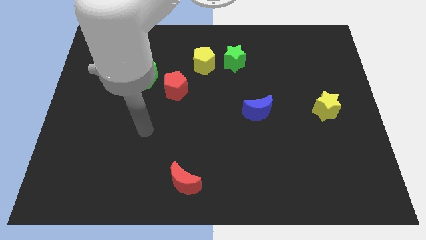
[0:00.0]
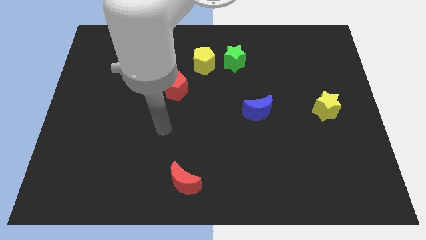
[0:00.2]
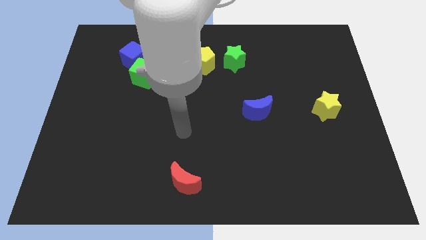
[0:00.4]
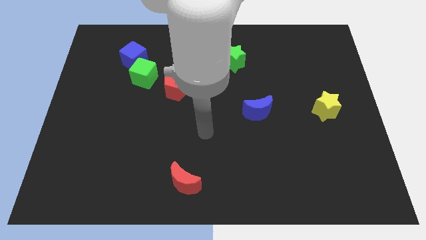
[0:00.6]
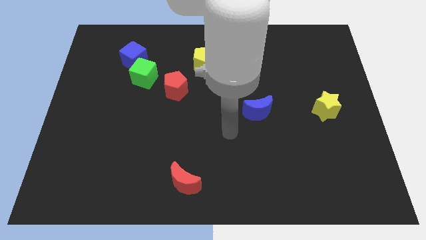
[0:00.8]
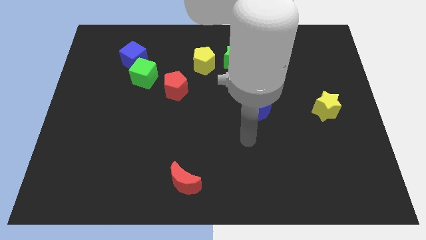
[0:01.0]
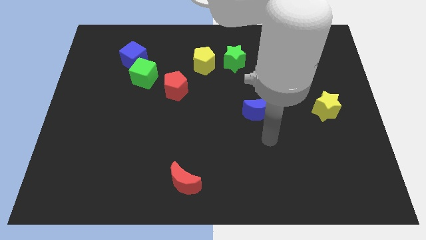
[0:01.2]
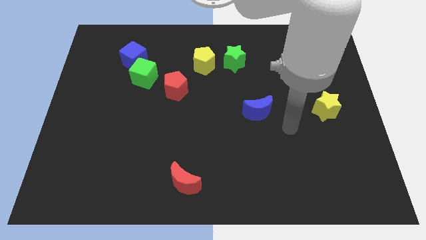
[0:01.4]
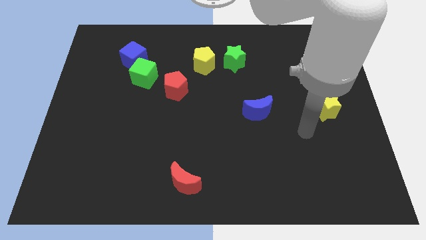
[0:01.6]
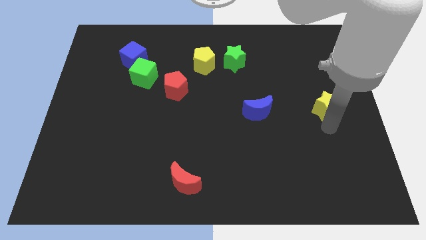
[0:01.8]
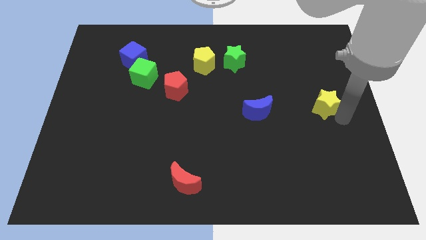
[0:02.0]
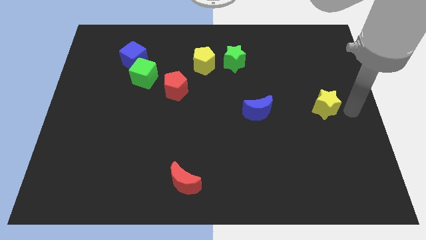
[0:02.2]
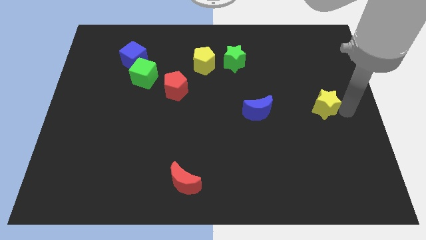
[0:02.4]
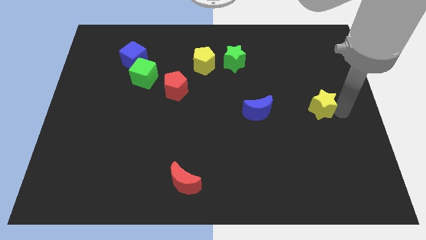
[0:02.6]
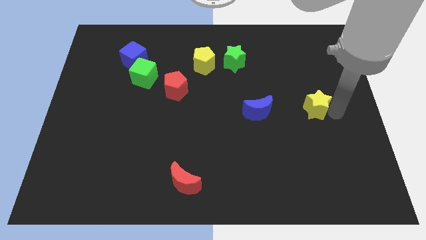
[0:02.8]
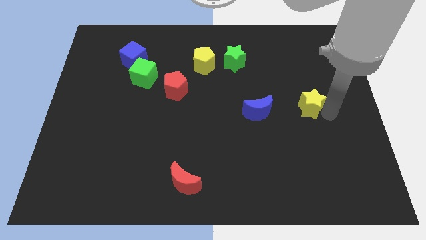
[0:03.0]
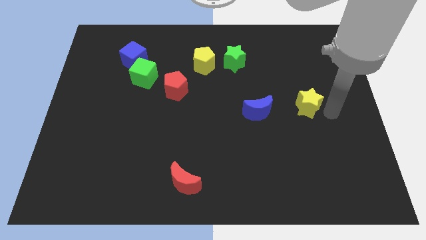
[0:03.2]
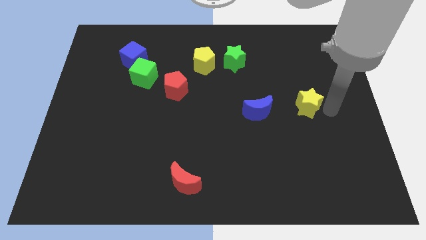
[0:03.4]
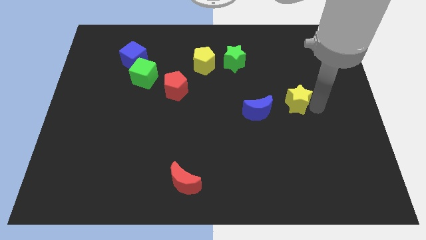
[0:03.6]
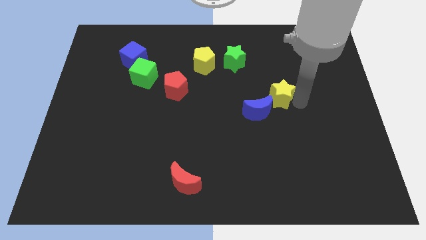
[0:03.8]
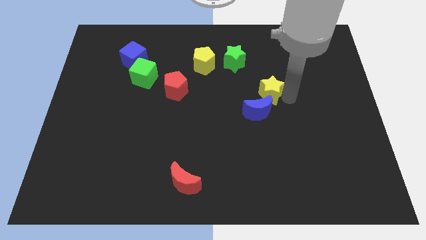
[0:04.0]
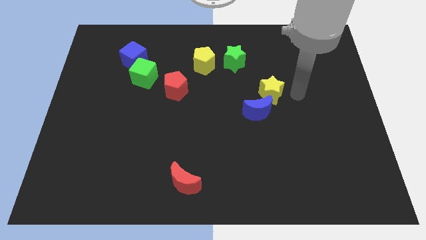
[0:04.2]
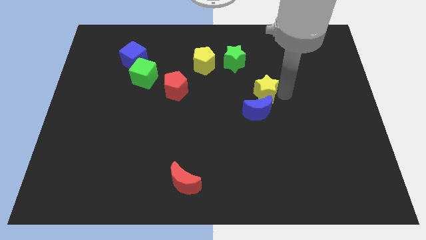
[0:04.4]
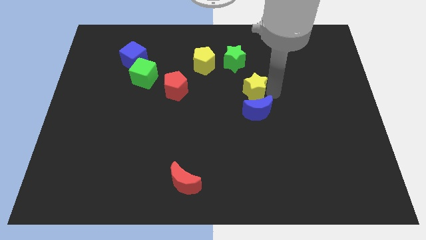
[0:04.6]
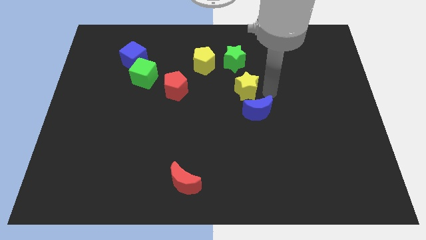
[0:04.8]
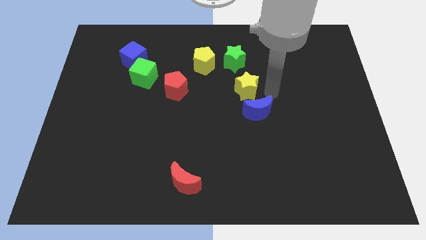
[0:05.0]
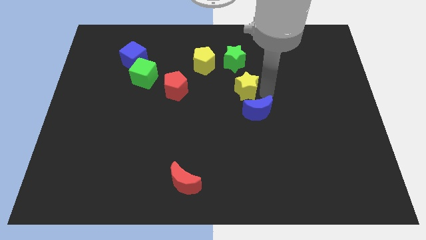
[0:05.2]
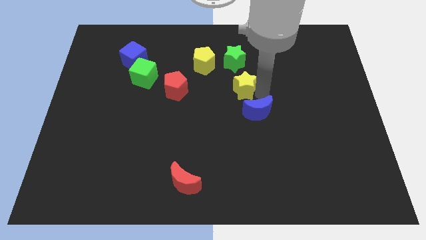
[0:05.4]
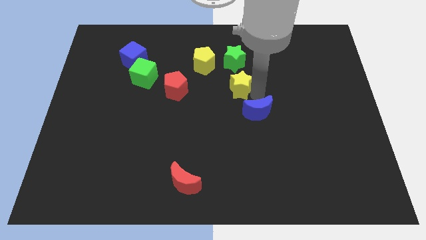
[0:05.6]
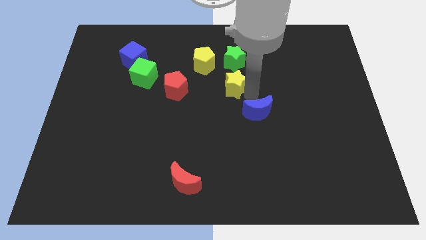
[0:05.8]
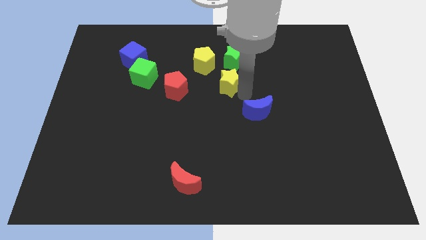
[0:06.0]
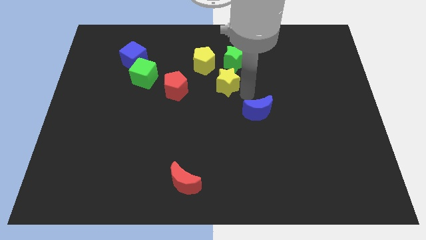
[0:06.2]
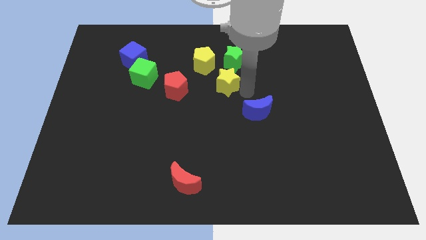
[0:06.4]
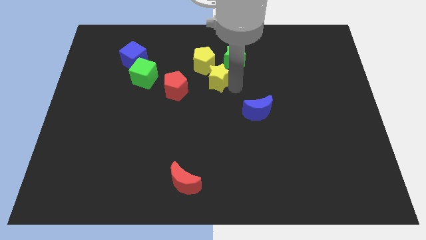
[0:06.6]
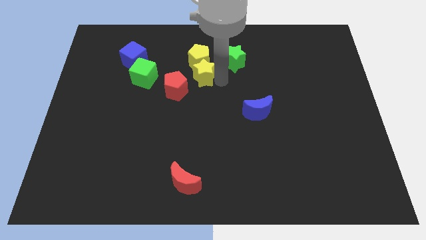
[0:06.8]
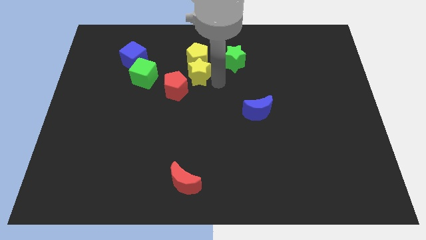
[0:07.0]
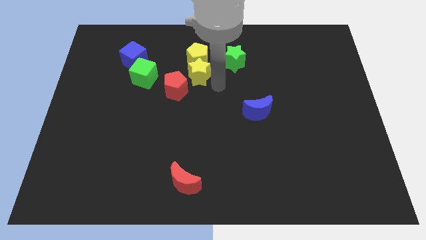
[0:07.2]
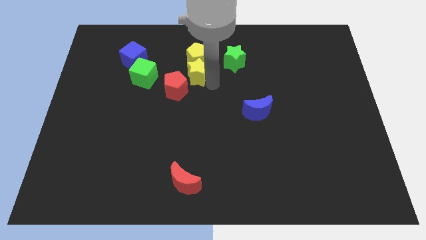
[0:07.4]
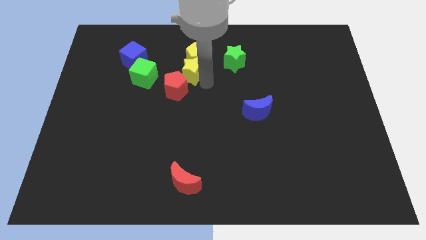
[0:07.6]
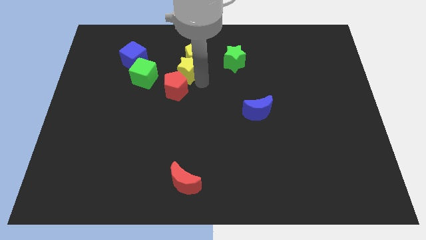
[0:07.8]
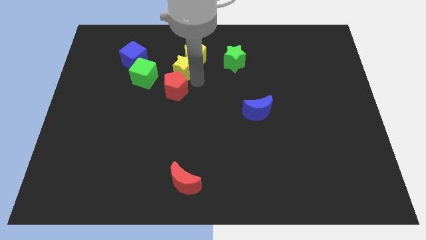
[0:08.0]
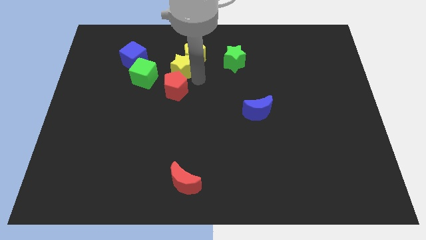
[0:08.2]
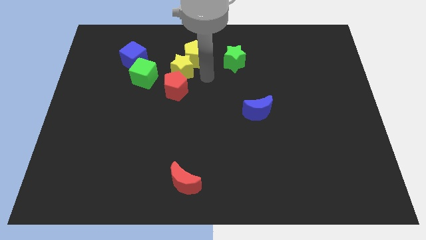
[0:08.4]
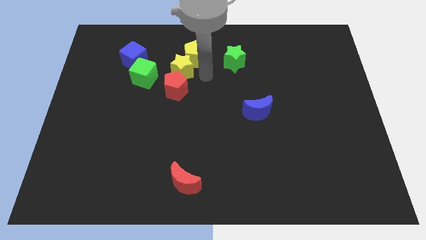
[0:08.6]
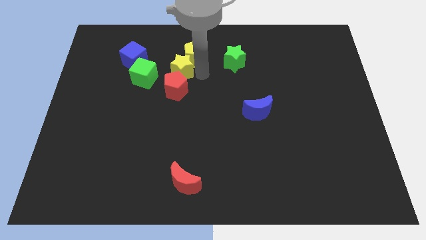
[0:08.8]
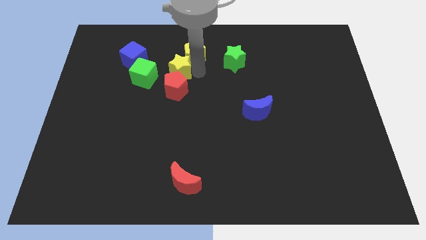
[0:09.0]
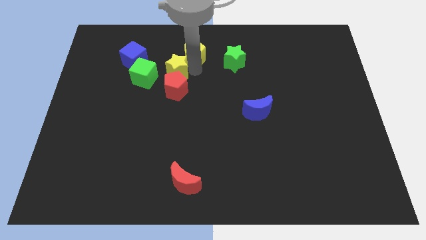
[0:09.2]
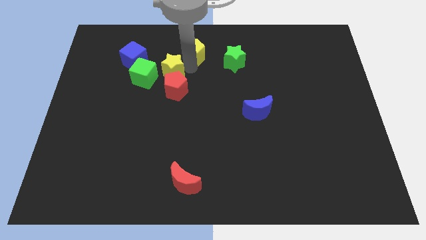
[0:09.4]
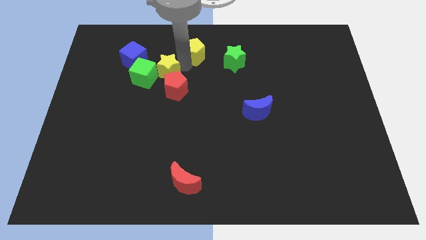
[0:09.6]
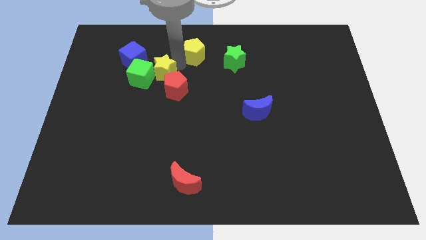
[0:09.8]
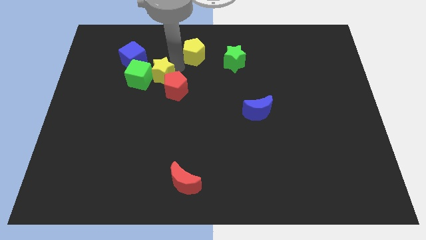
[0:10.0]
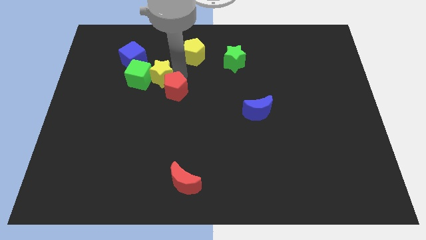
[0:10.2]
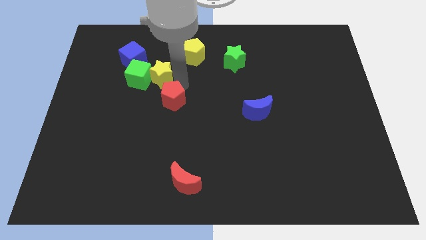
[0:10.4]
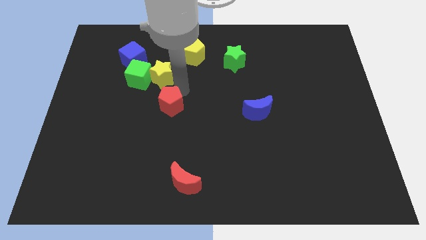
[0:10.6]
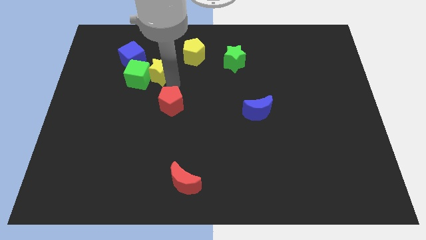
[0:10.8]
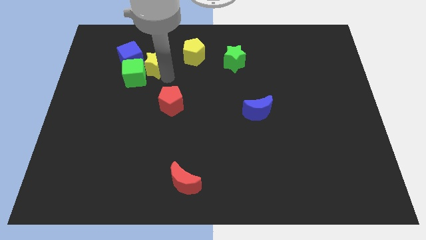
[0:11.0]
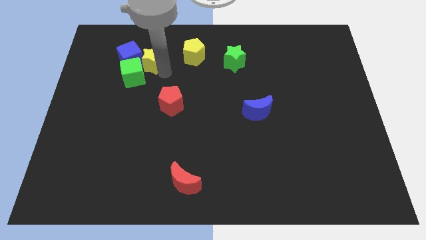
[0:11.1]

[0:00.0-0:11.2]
put the yellow star close to the blue cube

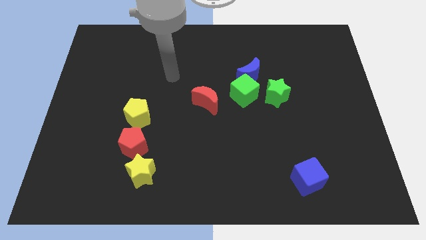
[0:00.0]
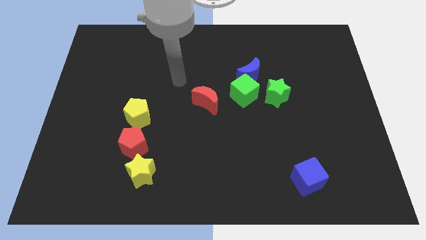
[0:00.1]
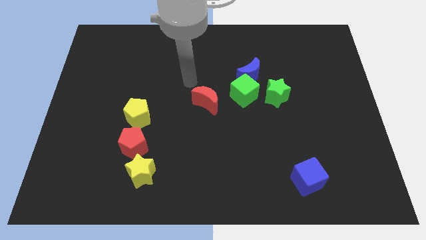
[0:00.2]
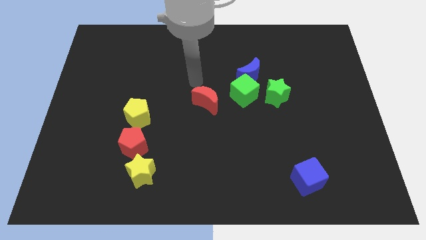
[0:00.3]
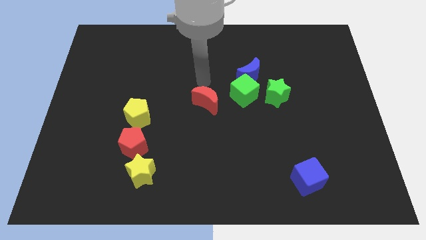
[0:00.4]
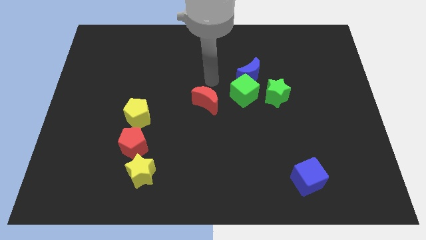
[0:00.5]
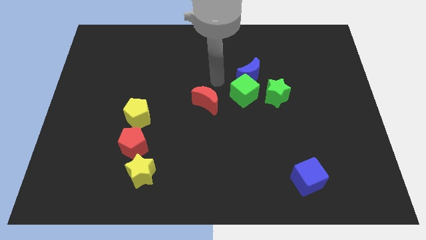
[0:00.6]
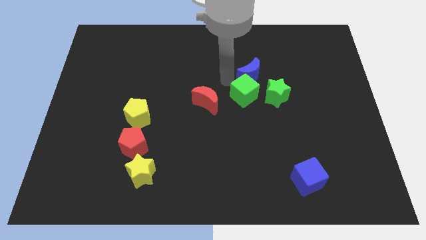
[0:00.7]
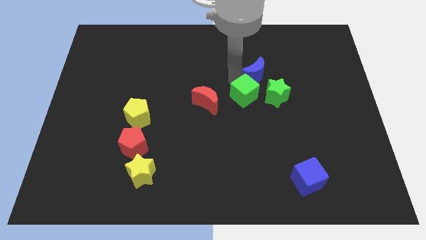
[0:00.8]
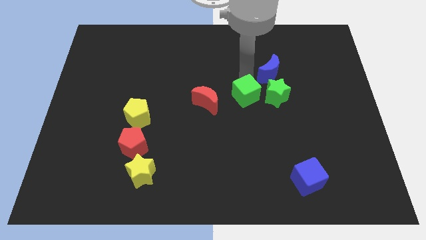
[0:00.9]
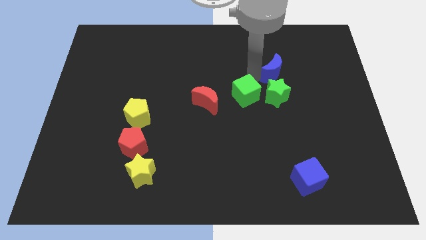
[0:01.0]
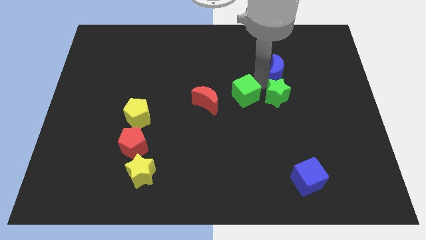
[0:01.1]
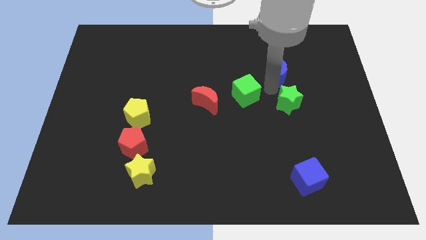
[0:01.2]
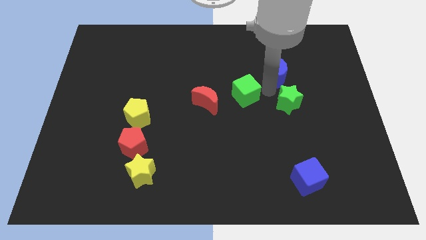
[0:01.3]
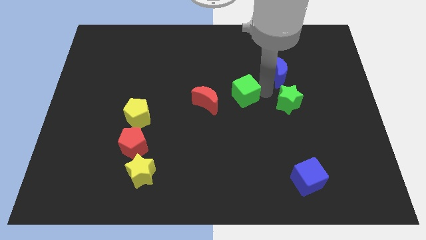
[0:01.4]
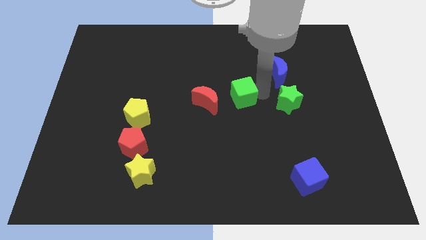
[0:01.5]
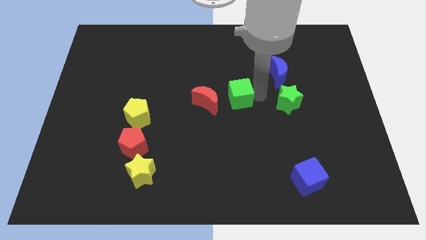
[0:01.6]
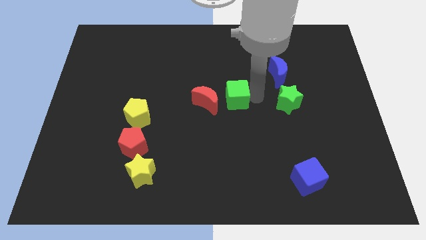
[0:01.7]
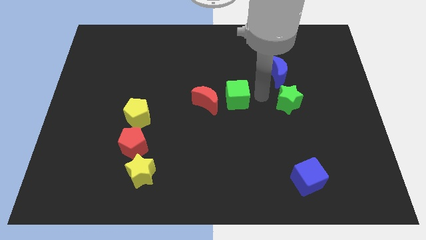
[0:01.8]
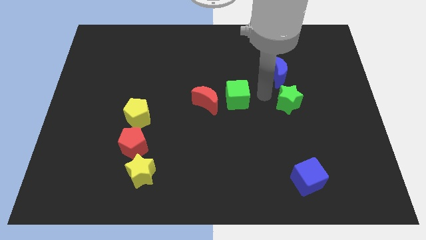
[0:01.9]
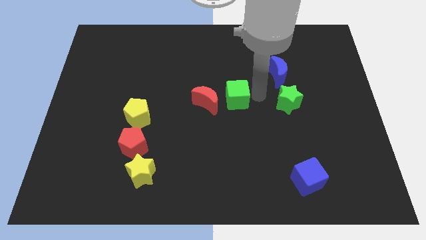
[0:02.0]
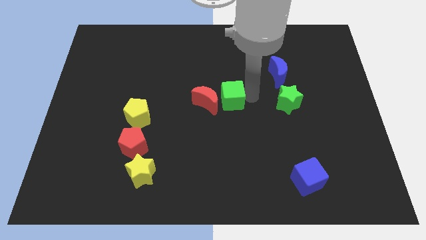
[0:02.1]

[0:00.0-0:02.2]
move the green cube next to the red moon

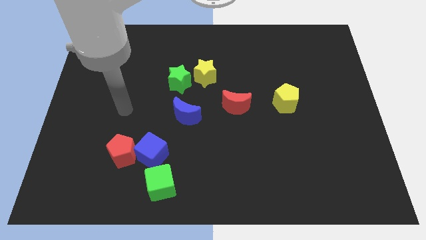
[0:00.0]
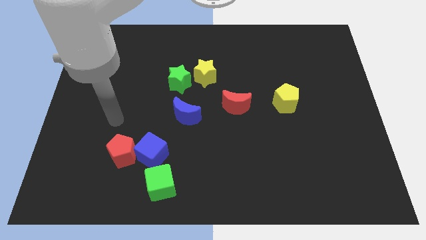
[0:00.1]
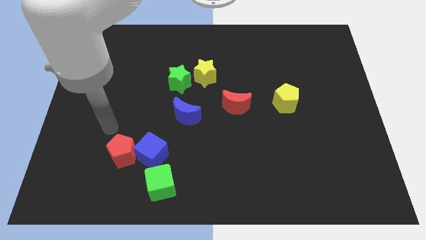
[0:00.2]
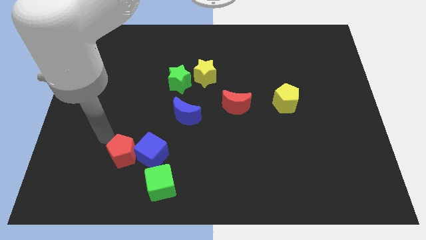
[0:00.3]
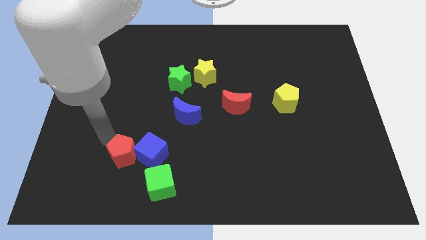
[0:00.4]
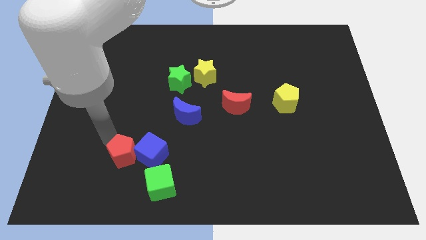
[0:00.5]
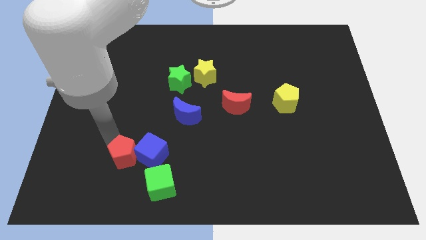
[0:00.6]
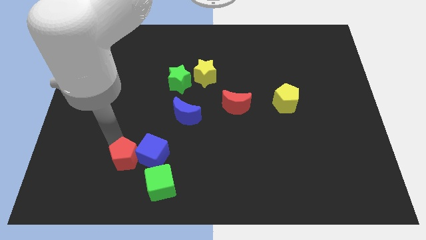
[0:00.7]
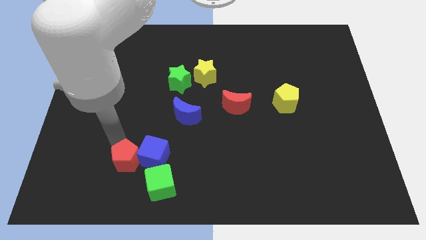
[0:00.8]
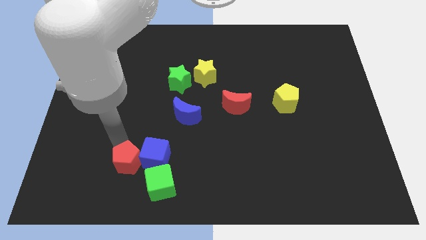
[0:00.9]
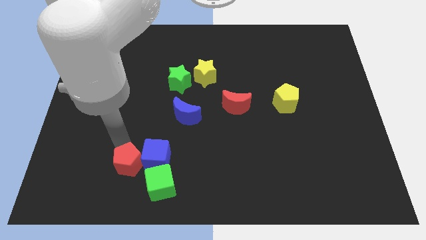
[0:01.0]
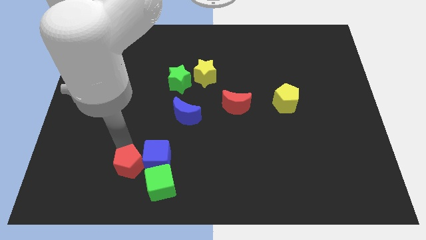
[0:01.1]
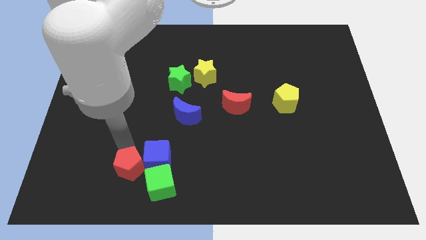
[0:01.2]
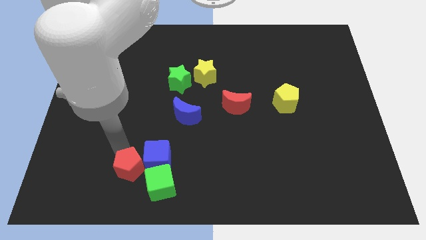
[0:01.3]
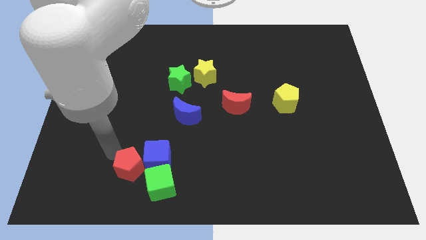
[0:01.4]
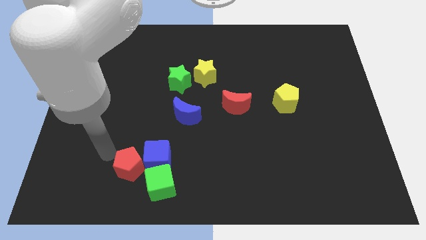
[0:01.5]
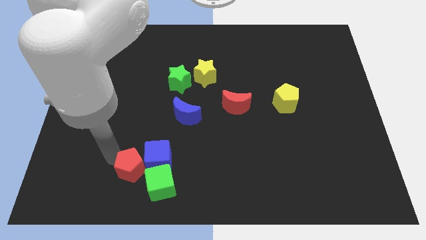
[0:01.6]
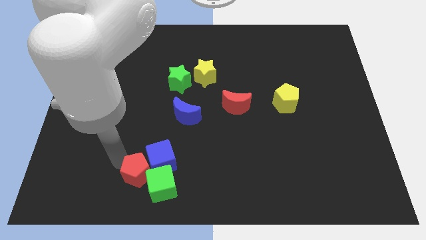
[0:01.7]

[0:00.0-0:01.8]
push the red pentagon next to the green cube
